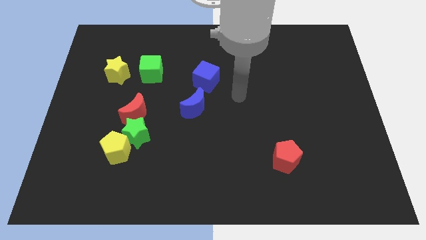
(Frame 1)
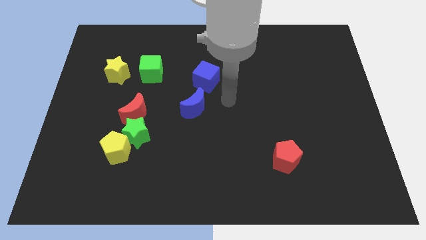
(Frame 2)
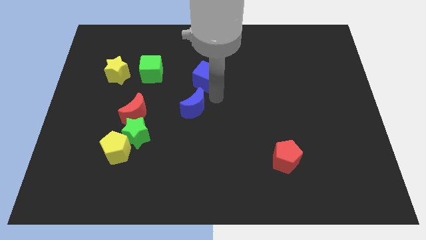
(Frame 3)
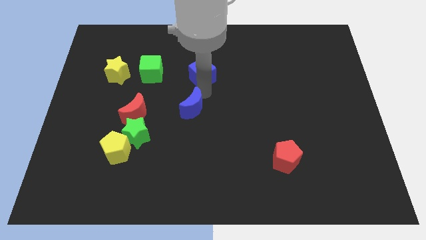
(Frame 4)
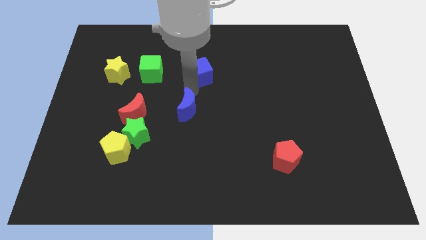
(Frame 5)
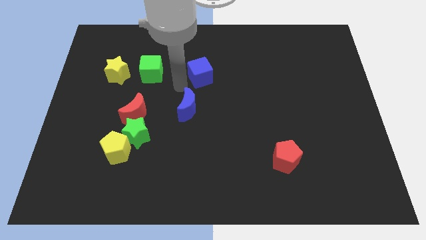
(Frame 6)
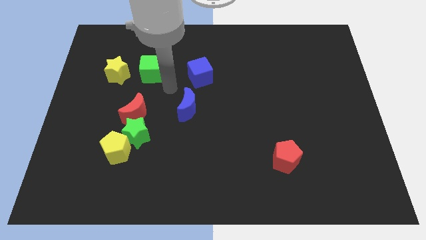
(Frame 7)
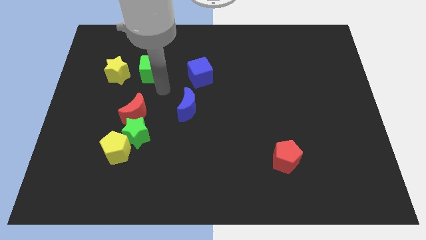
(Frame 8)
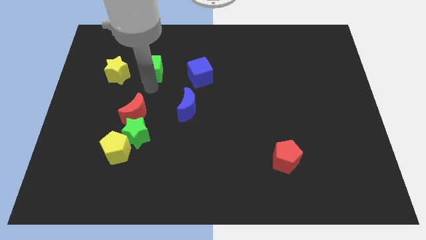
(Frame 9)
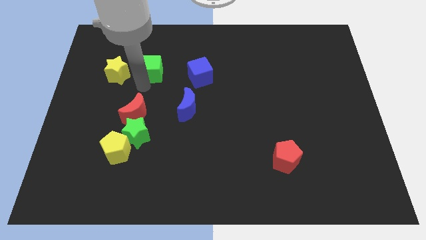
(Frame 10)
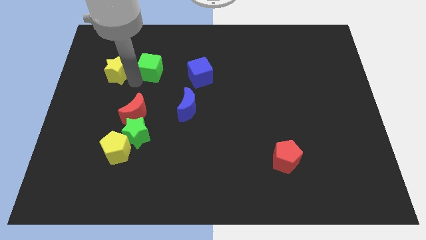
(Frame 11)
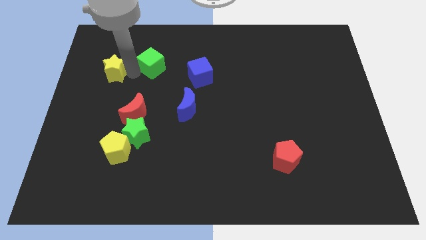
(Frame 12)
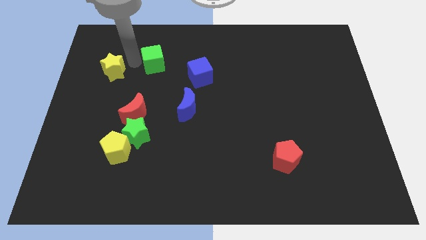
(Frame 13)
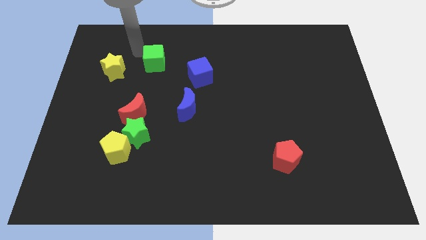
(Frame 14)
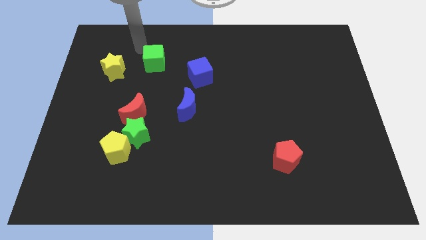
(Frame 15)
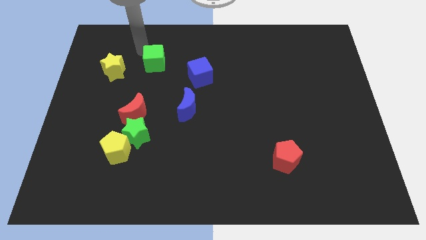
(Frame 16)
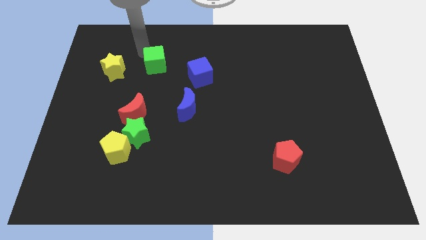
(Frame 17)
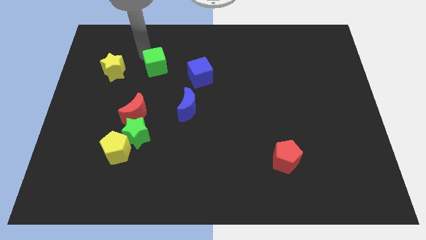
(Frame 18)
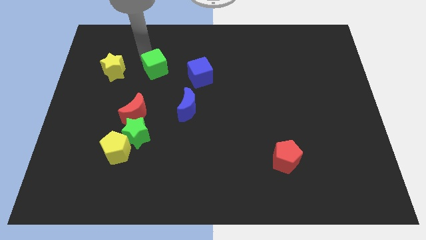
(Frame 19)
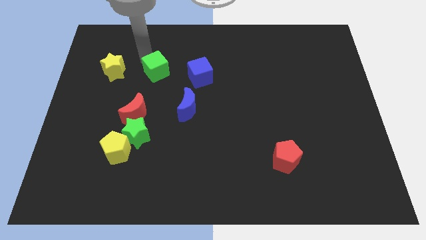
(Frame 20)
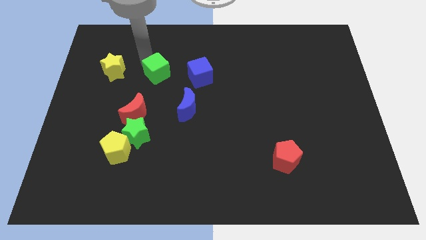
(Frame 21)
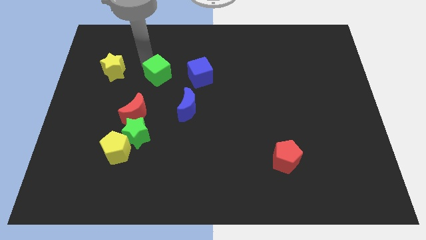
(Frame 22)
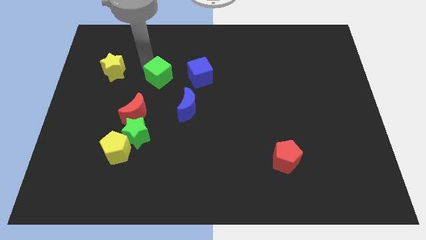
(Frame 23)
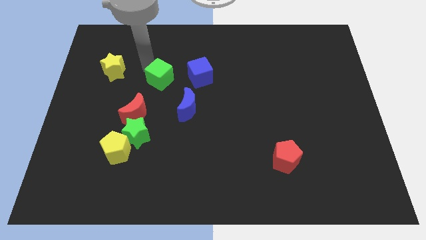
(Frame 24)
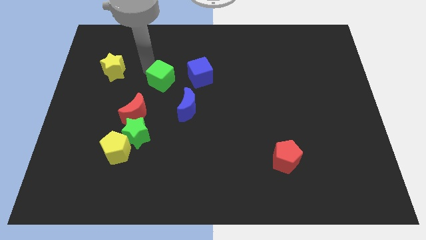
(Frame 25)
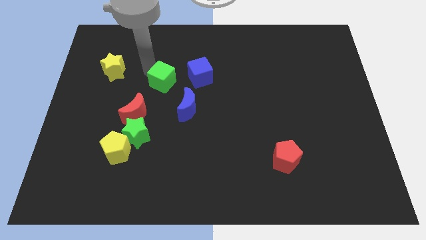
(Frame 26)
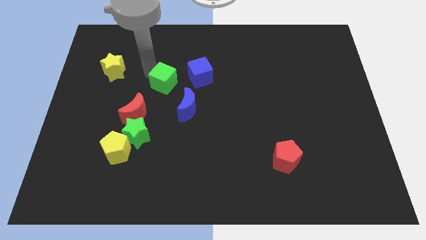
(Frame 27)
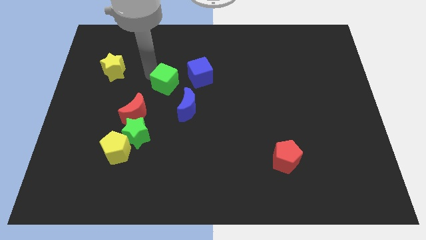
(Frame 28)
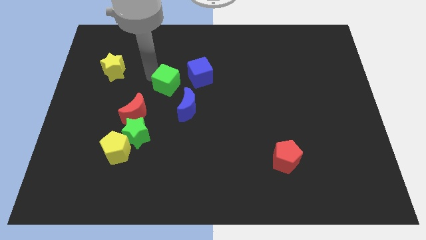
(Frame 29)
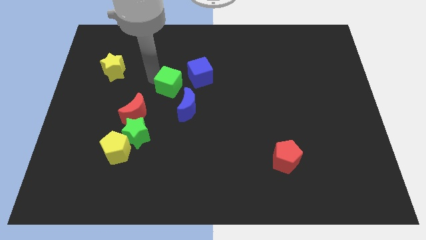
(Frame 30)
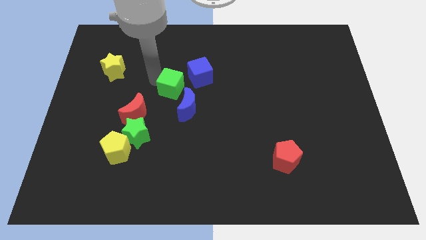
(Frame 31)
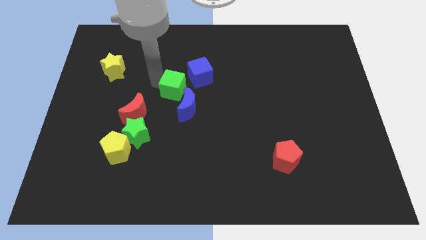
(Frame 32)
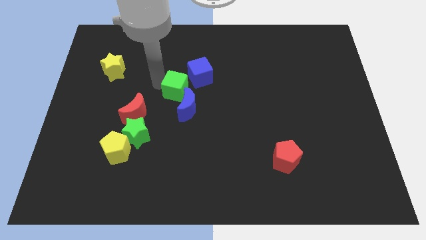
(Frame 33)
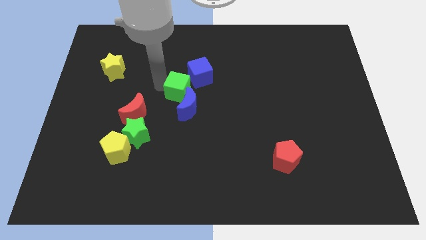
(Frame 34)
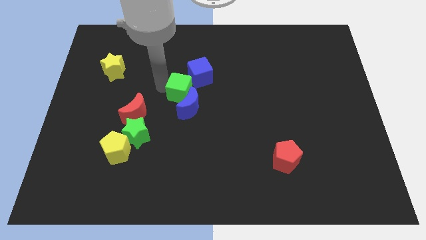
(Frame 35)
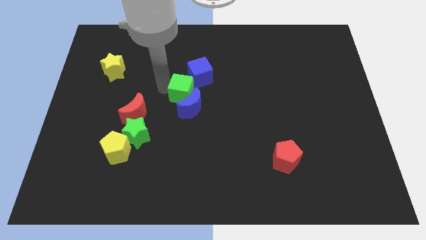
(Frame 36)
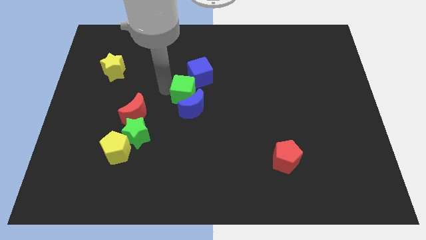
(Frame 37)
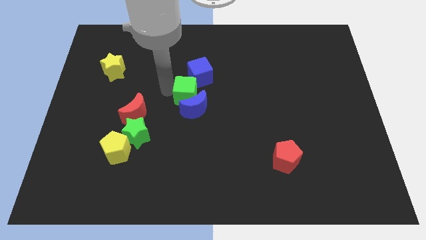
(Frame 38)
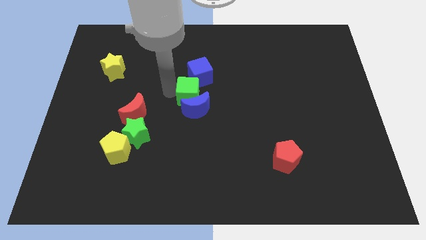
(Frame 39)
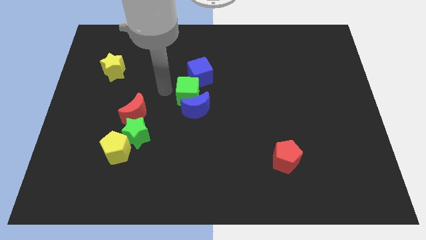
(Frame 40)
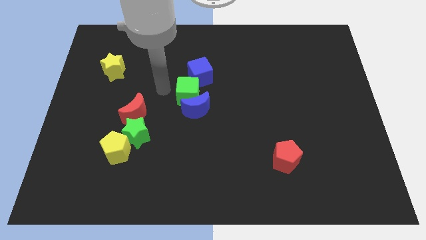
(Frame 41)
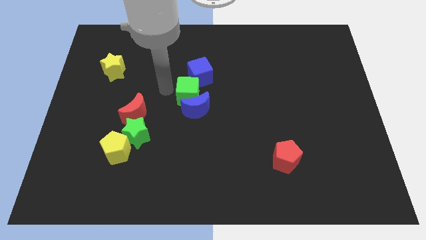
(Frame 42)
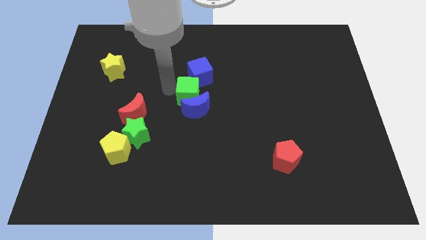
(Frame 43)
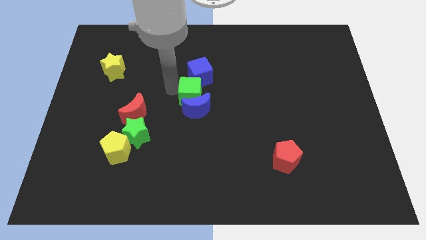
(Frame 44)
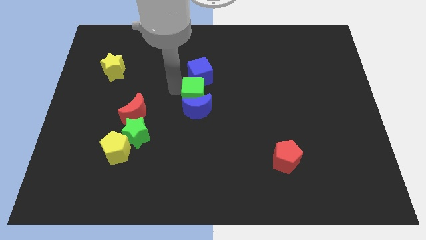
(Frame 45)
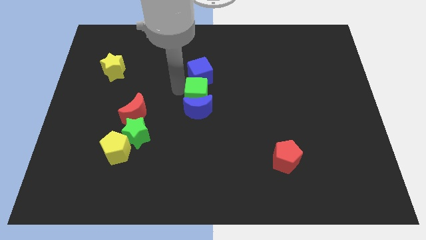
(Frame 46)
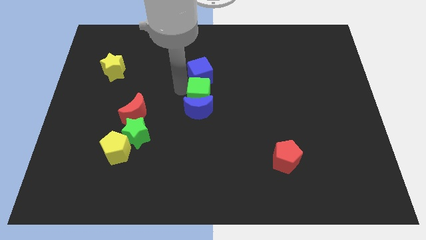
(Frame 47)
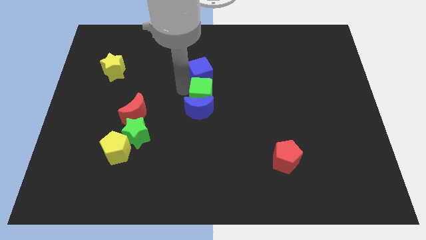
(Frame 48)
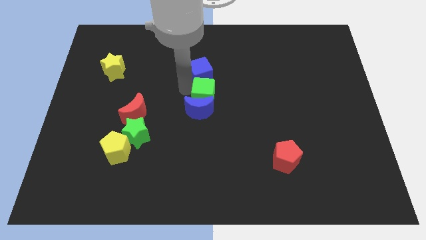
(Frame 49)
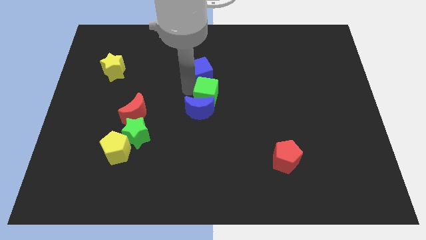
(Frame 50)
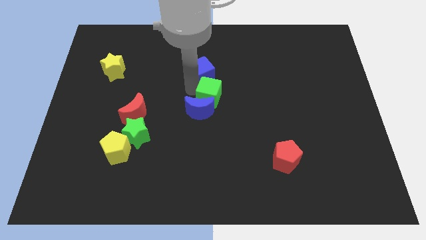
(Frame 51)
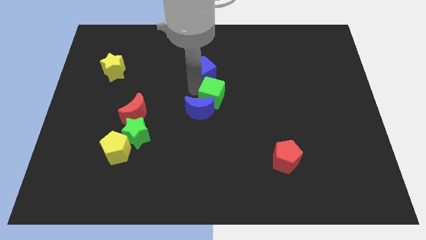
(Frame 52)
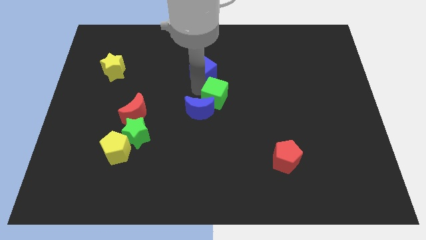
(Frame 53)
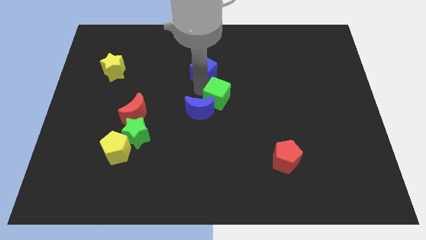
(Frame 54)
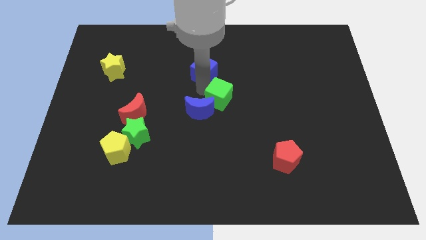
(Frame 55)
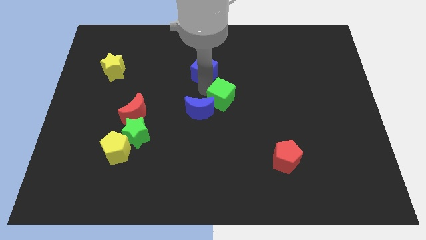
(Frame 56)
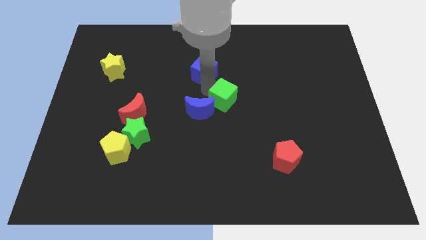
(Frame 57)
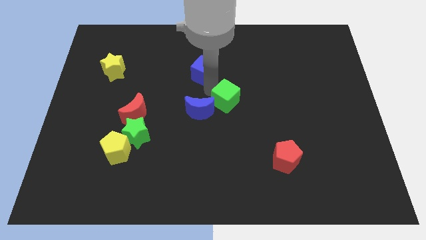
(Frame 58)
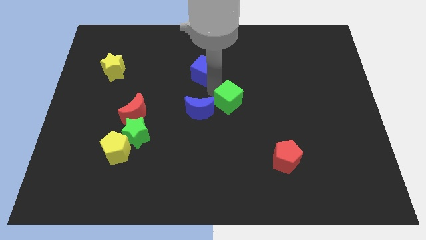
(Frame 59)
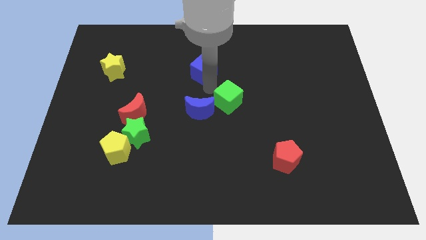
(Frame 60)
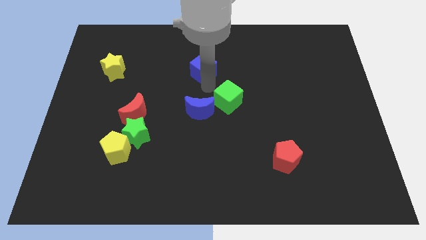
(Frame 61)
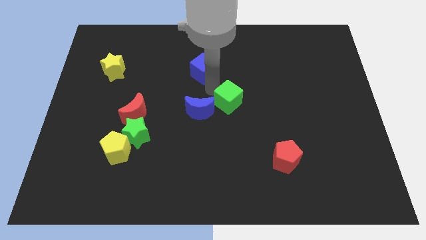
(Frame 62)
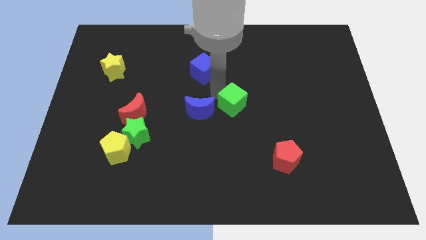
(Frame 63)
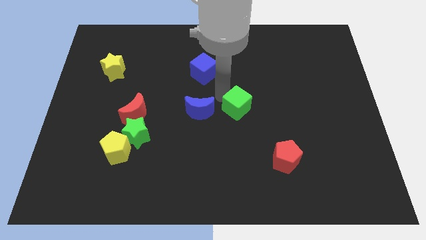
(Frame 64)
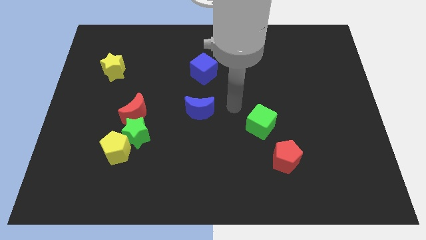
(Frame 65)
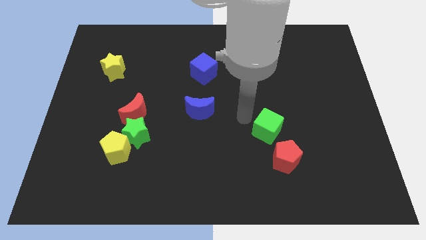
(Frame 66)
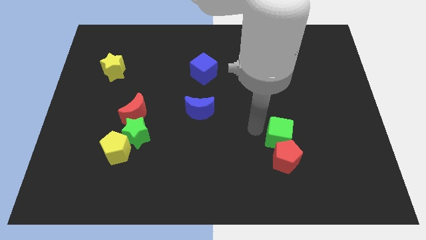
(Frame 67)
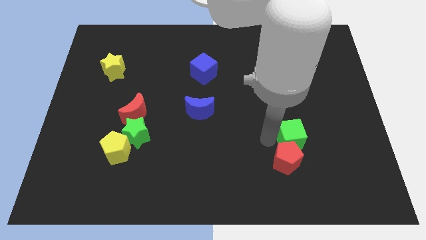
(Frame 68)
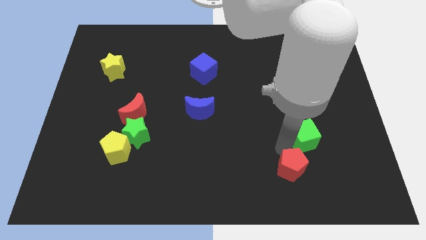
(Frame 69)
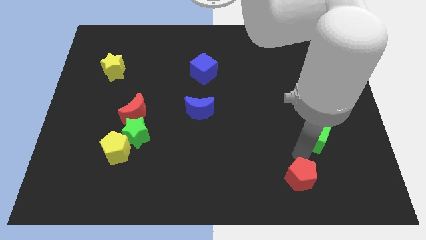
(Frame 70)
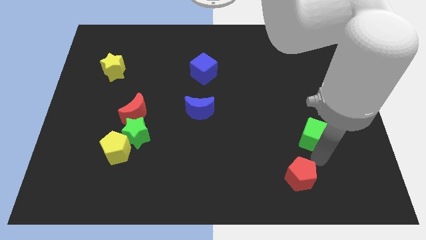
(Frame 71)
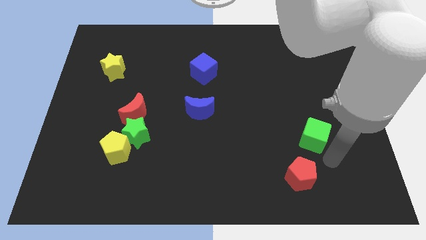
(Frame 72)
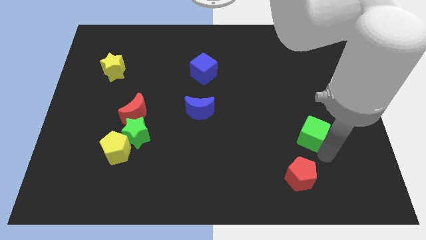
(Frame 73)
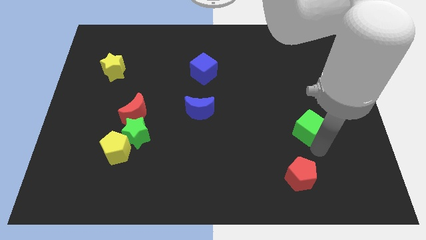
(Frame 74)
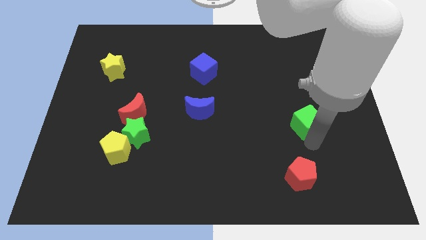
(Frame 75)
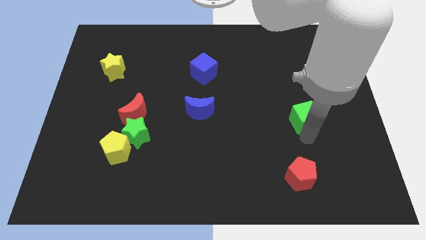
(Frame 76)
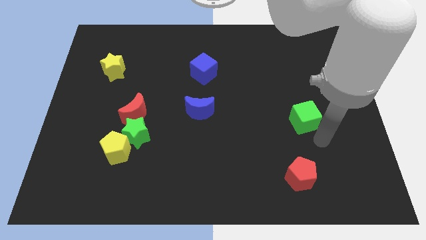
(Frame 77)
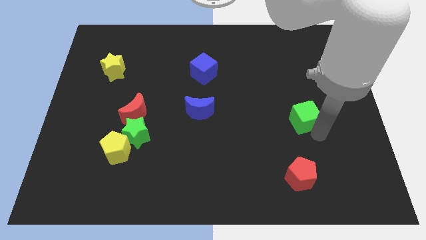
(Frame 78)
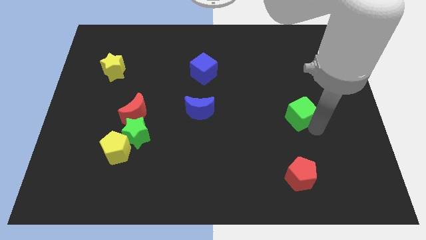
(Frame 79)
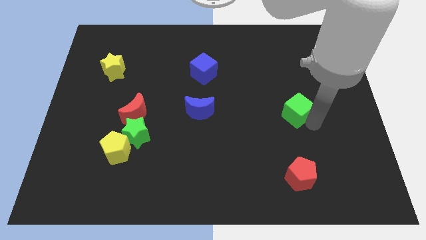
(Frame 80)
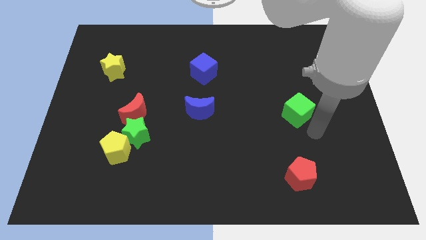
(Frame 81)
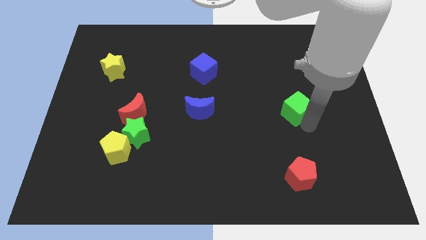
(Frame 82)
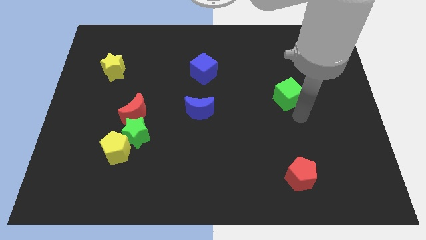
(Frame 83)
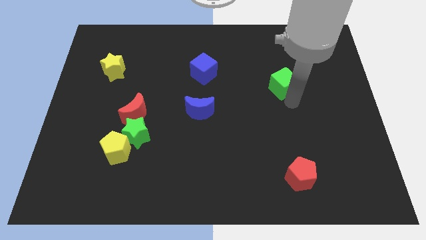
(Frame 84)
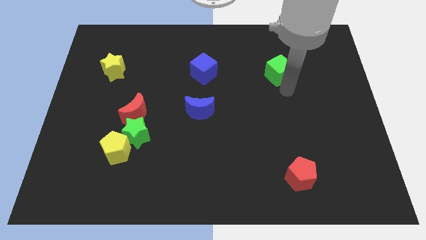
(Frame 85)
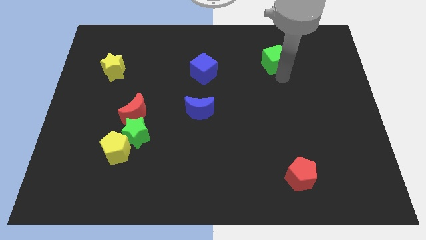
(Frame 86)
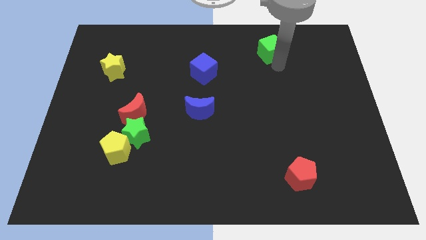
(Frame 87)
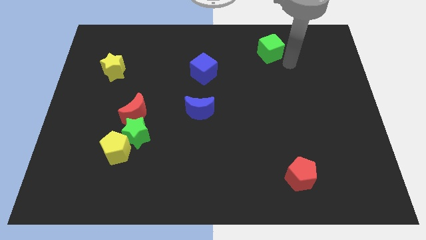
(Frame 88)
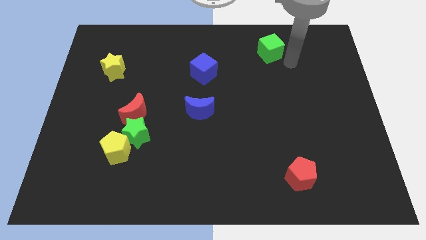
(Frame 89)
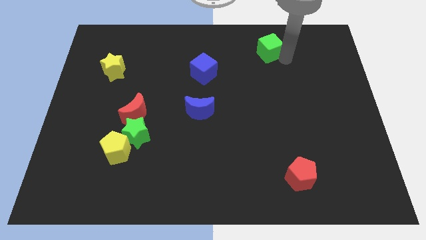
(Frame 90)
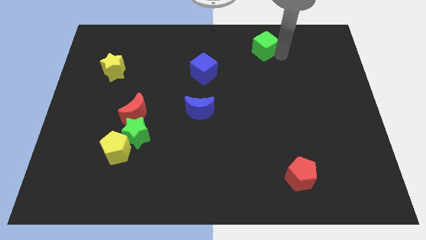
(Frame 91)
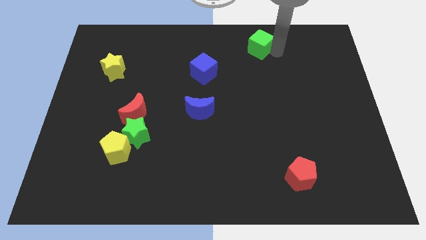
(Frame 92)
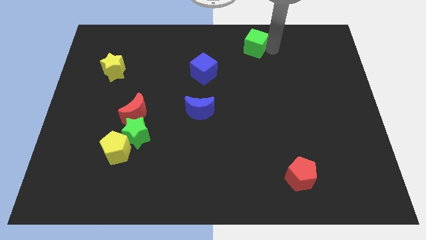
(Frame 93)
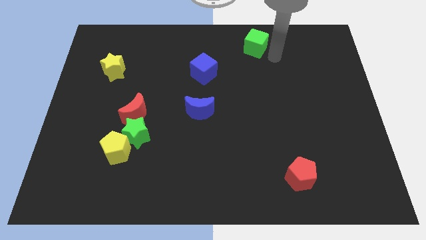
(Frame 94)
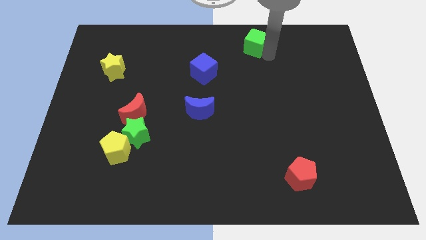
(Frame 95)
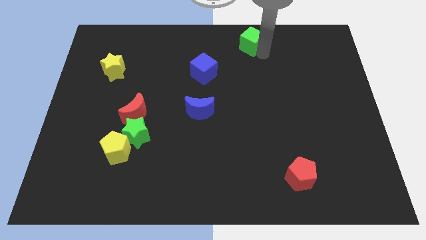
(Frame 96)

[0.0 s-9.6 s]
put the green cube to the top side
